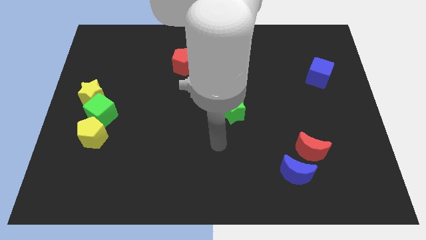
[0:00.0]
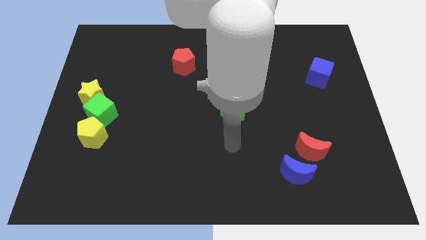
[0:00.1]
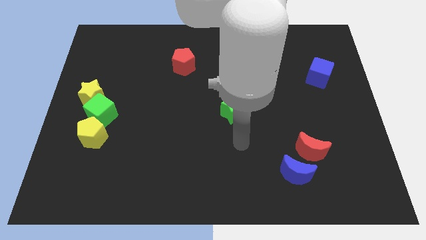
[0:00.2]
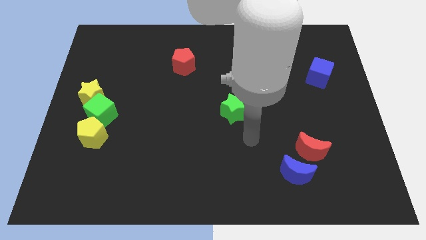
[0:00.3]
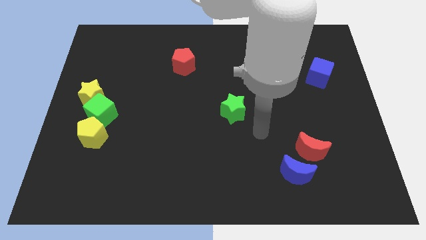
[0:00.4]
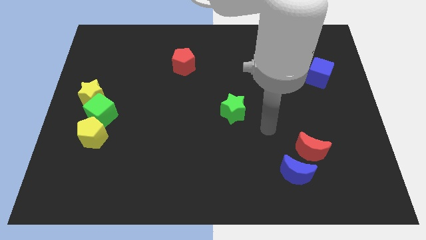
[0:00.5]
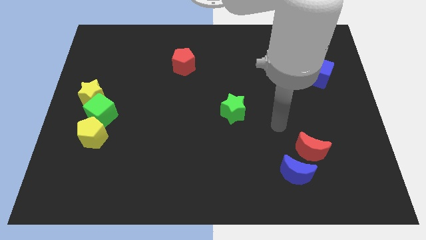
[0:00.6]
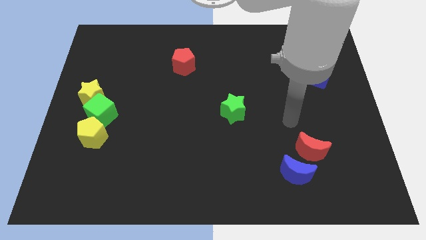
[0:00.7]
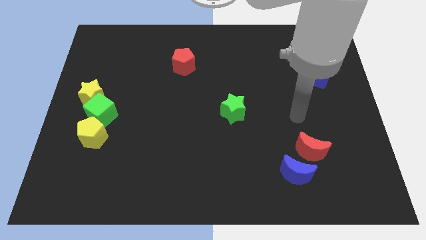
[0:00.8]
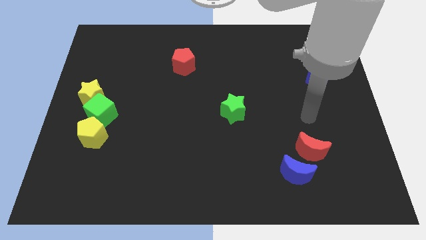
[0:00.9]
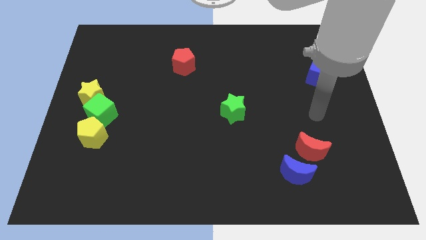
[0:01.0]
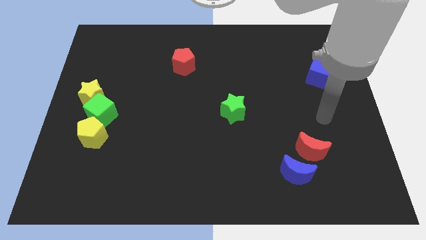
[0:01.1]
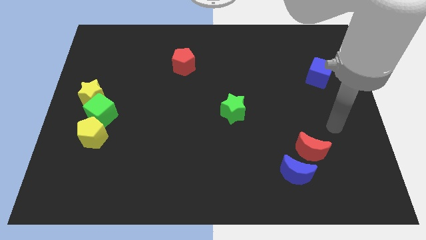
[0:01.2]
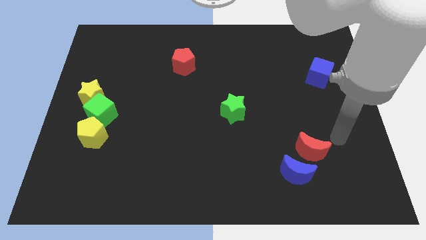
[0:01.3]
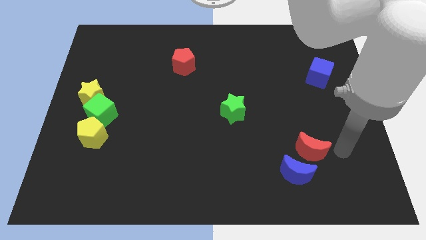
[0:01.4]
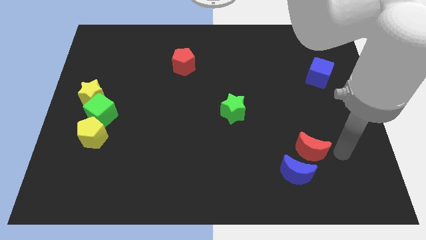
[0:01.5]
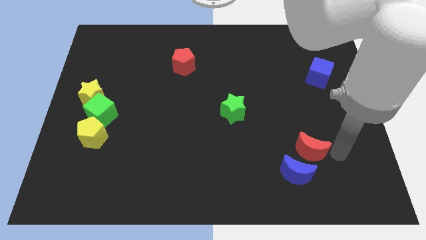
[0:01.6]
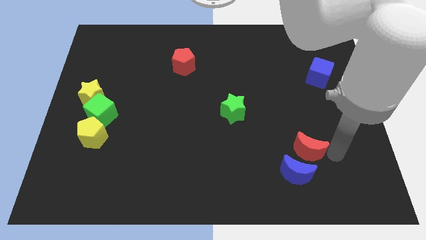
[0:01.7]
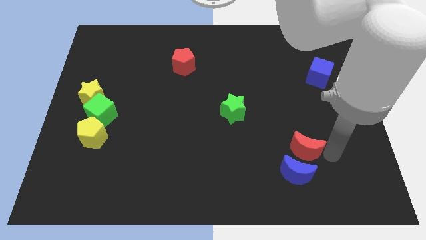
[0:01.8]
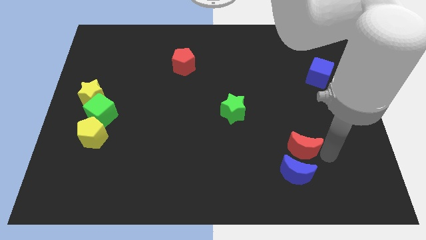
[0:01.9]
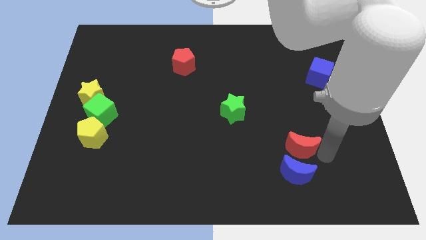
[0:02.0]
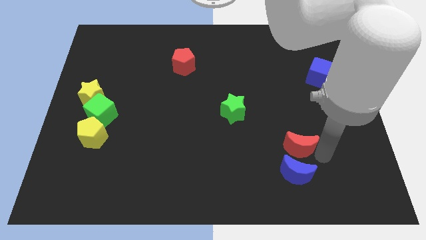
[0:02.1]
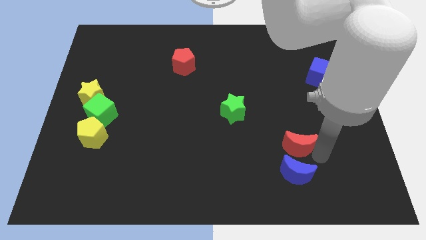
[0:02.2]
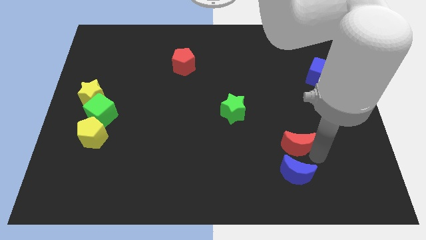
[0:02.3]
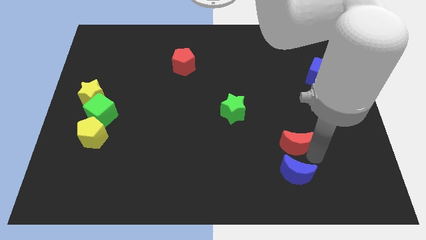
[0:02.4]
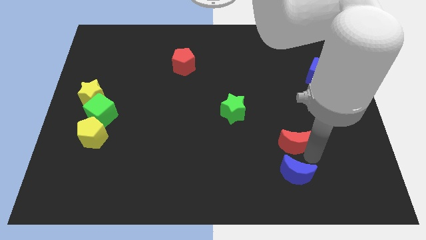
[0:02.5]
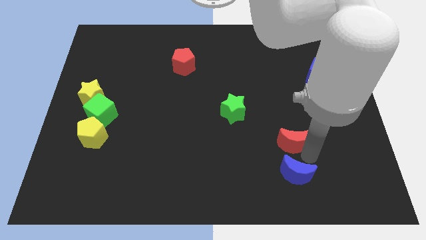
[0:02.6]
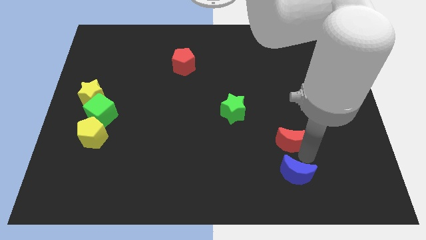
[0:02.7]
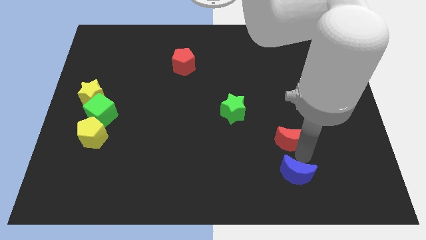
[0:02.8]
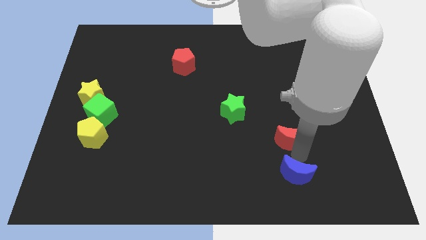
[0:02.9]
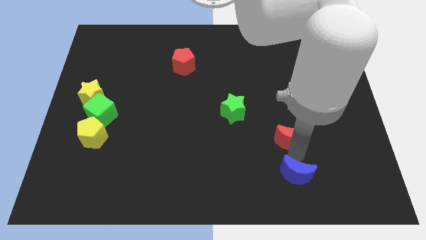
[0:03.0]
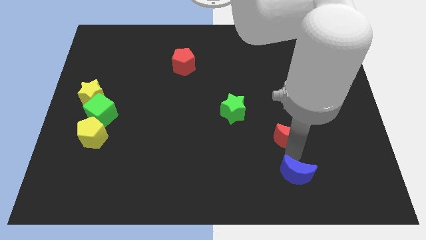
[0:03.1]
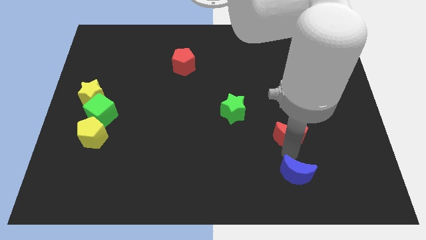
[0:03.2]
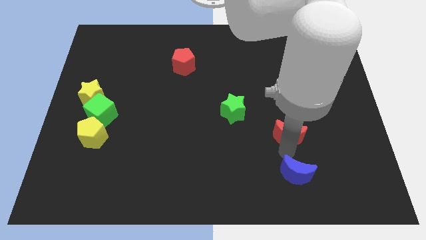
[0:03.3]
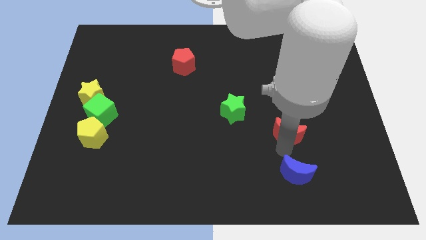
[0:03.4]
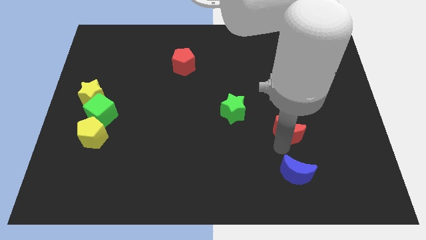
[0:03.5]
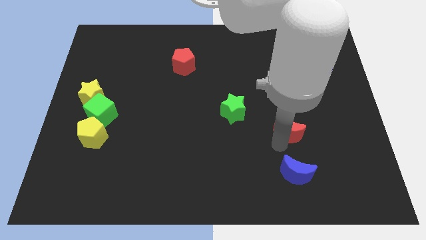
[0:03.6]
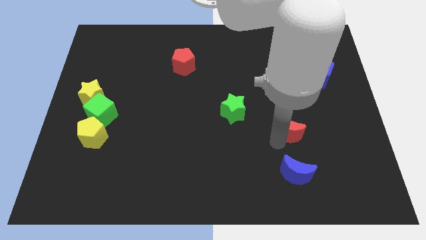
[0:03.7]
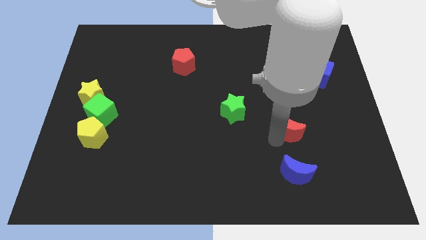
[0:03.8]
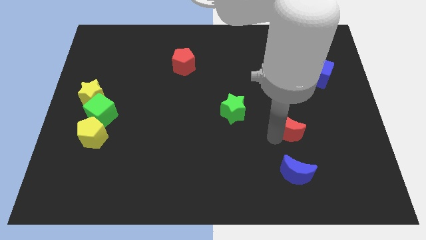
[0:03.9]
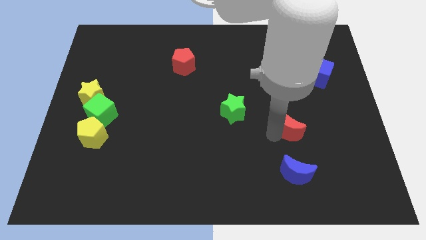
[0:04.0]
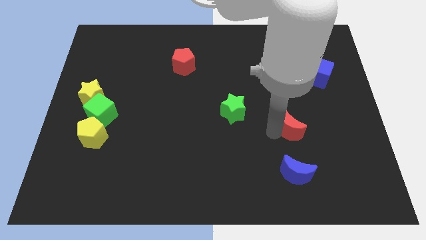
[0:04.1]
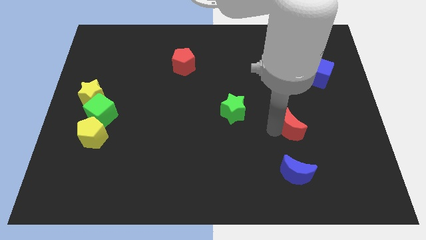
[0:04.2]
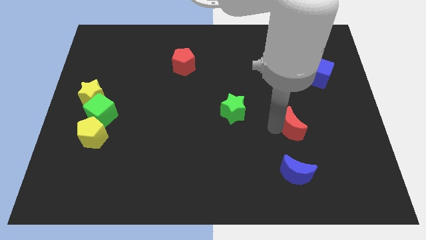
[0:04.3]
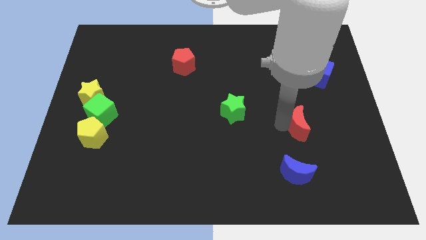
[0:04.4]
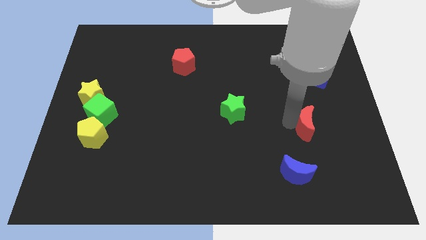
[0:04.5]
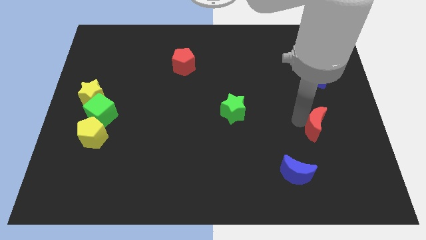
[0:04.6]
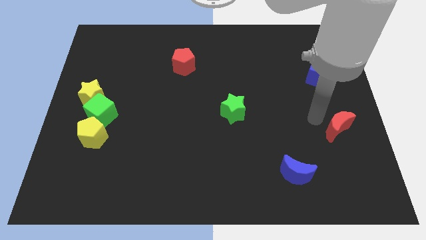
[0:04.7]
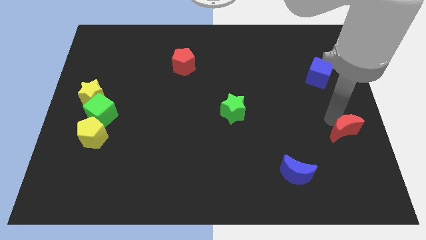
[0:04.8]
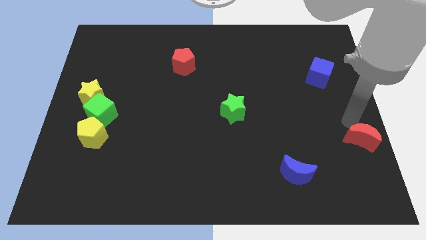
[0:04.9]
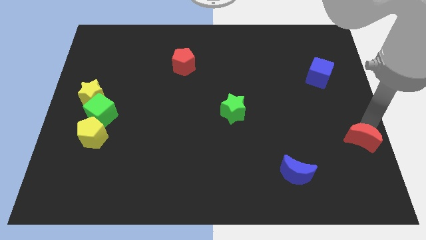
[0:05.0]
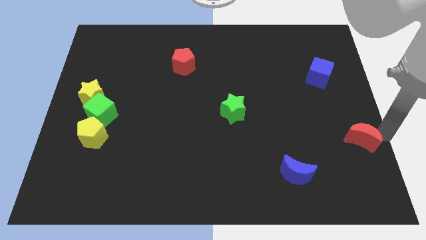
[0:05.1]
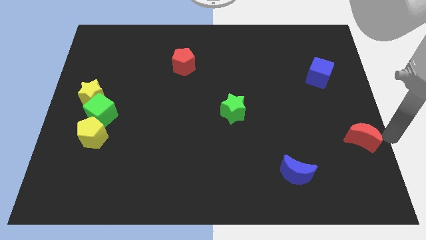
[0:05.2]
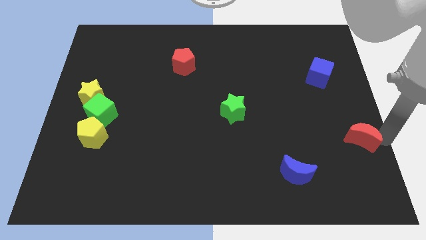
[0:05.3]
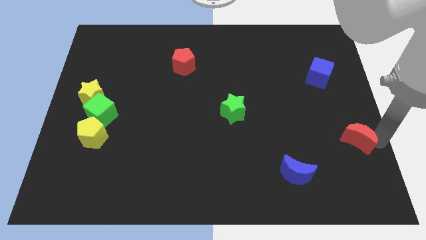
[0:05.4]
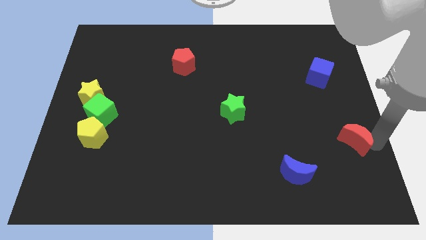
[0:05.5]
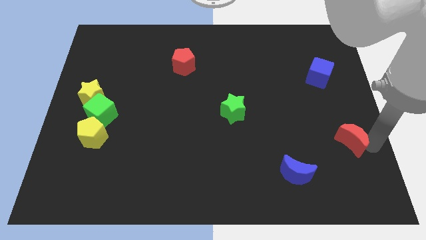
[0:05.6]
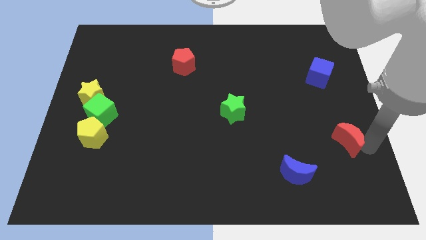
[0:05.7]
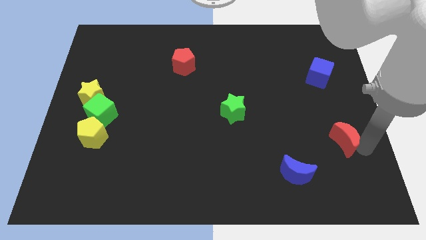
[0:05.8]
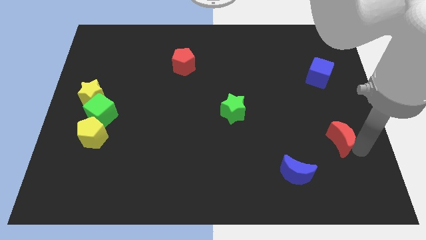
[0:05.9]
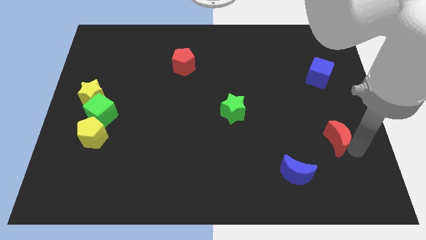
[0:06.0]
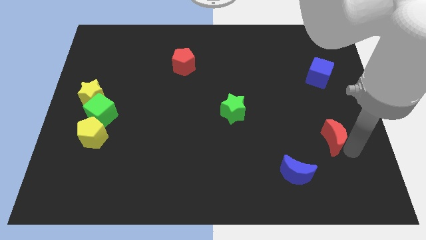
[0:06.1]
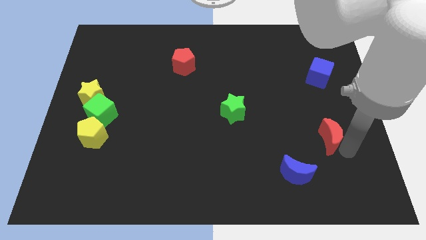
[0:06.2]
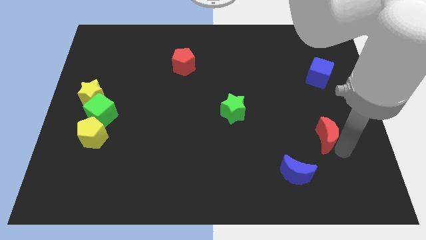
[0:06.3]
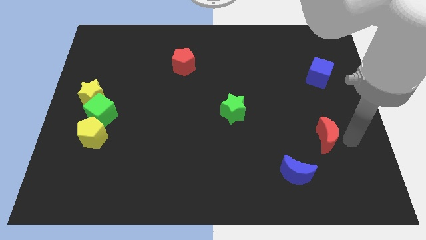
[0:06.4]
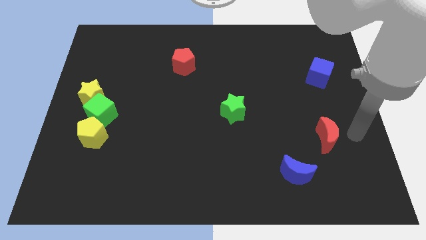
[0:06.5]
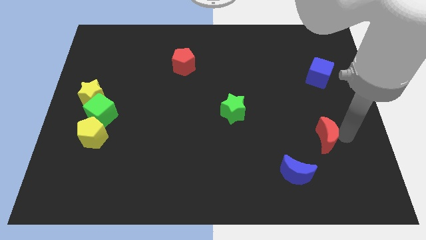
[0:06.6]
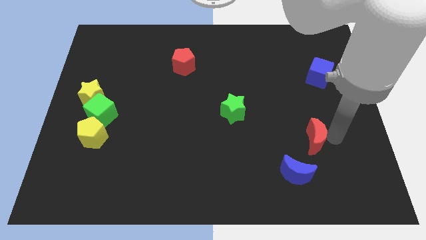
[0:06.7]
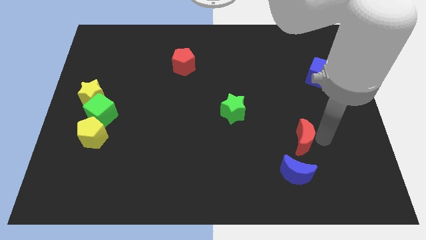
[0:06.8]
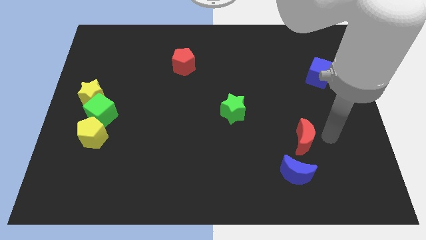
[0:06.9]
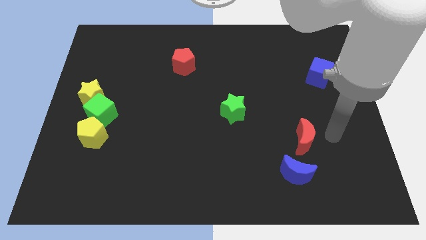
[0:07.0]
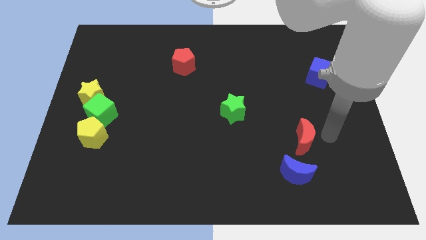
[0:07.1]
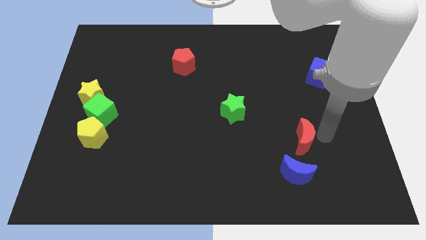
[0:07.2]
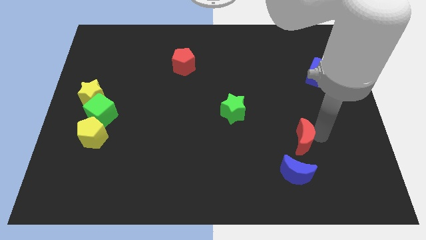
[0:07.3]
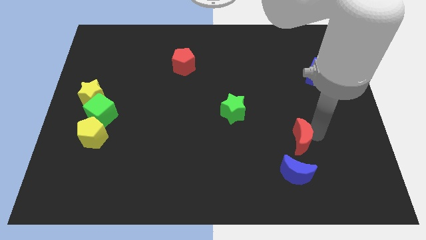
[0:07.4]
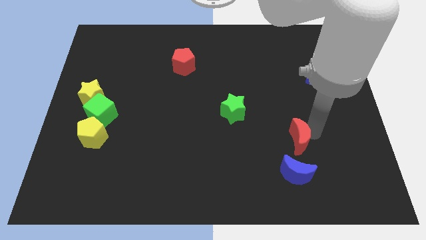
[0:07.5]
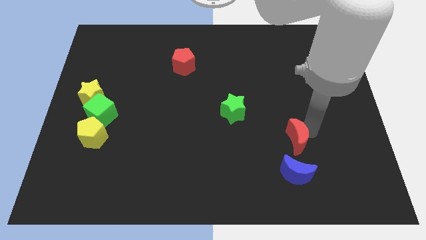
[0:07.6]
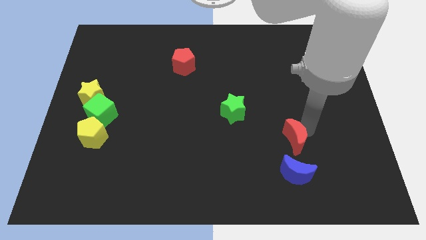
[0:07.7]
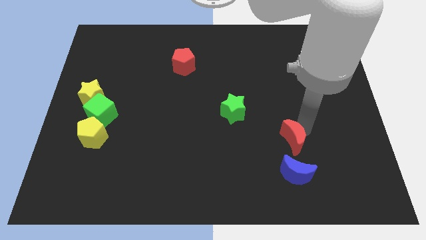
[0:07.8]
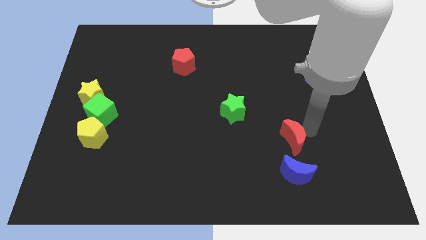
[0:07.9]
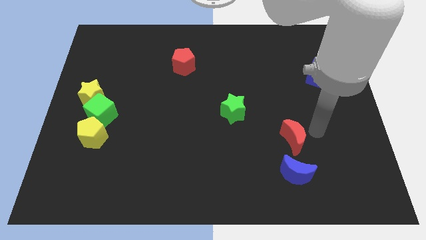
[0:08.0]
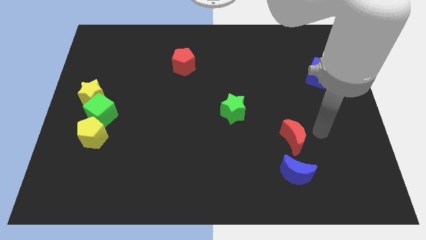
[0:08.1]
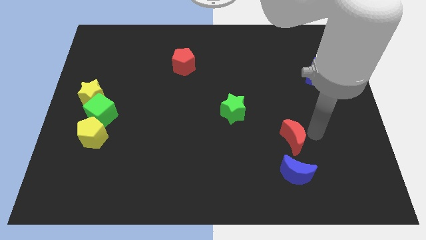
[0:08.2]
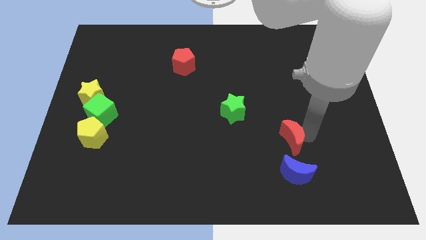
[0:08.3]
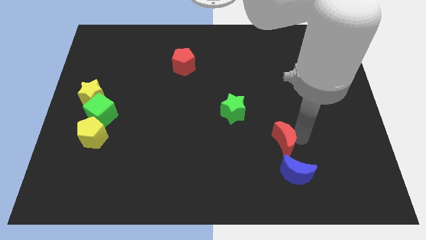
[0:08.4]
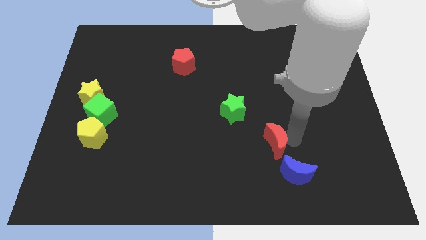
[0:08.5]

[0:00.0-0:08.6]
slightly slide the red moon left
